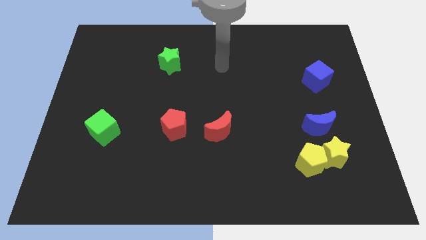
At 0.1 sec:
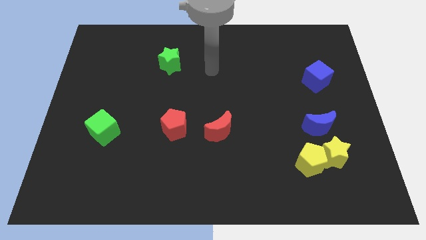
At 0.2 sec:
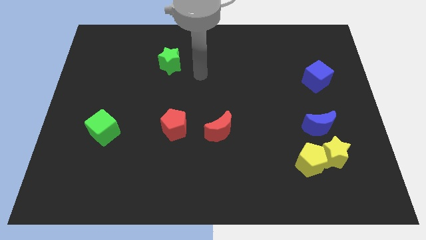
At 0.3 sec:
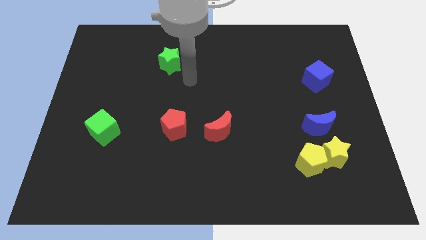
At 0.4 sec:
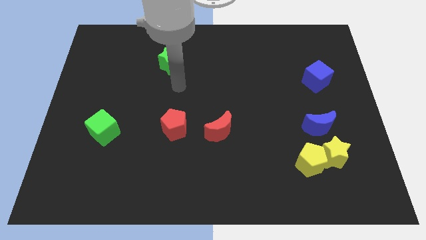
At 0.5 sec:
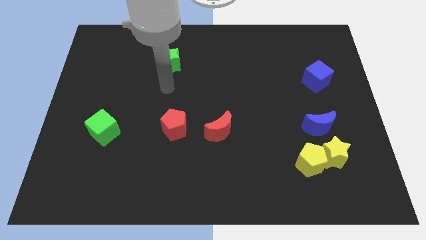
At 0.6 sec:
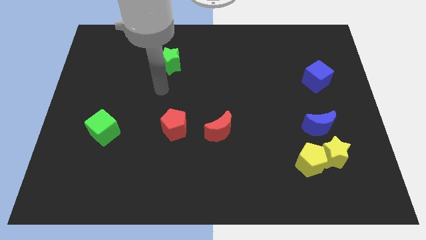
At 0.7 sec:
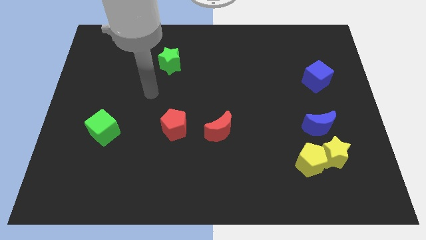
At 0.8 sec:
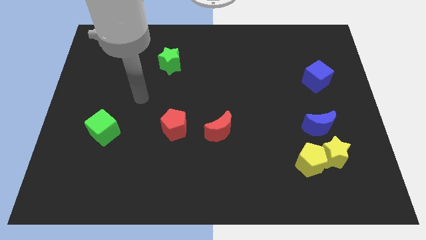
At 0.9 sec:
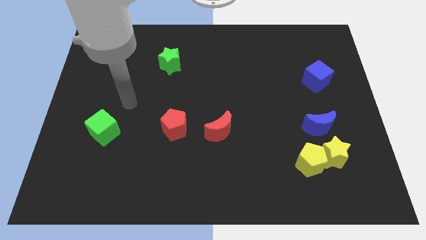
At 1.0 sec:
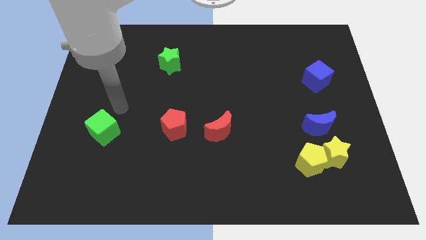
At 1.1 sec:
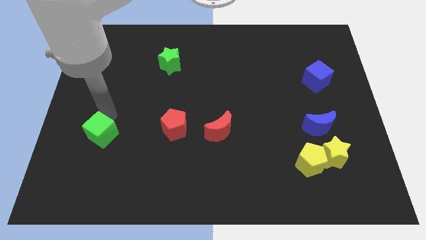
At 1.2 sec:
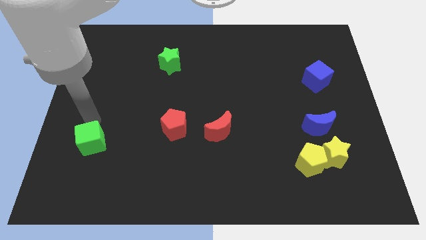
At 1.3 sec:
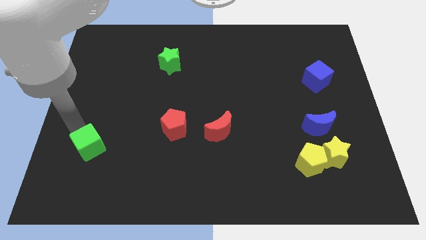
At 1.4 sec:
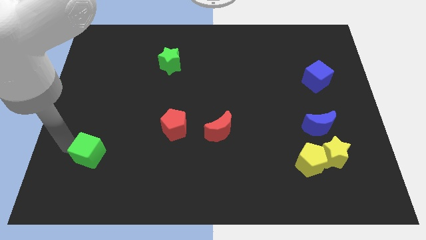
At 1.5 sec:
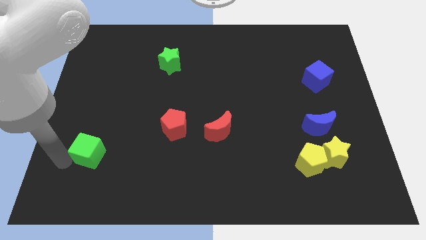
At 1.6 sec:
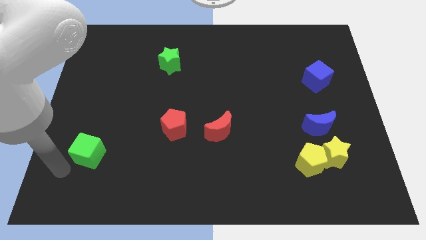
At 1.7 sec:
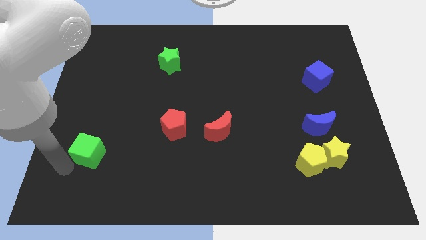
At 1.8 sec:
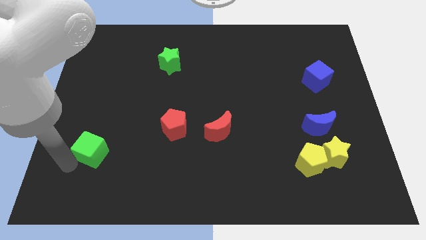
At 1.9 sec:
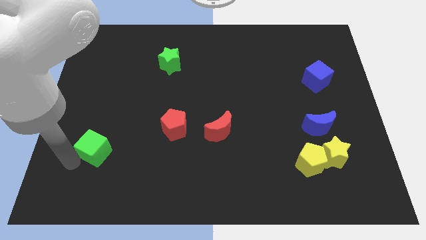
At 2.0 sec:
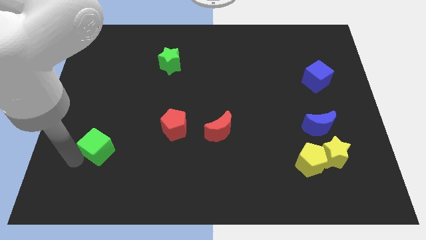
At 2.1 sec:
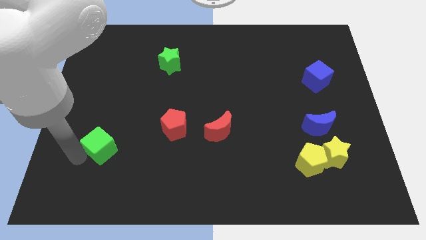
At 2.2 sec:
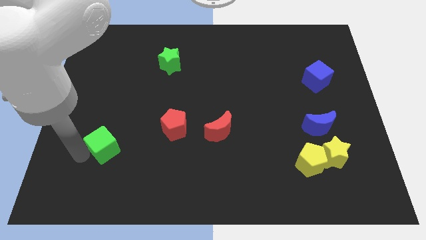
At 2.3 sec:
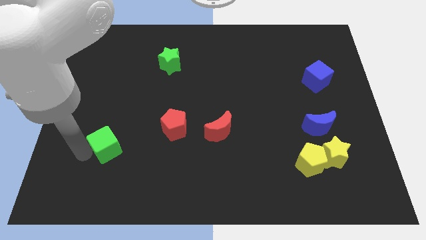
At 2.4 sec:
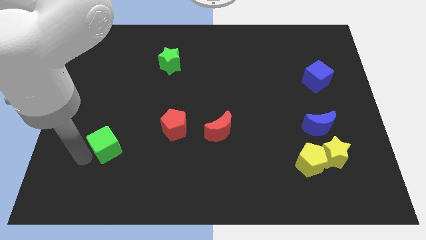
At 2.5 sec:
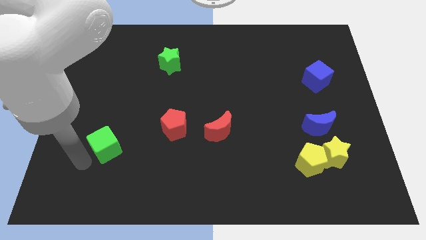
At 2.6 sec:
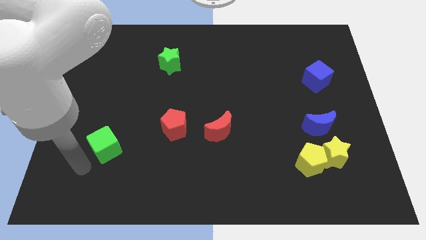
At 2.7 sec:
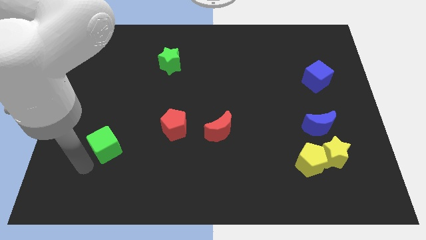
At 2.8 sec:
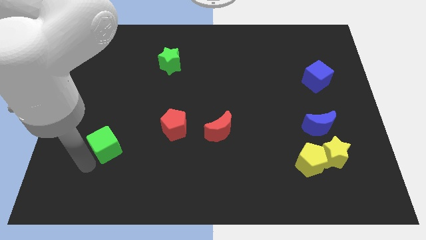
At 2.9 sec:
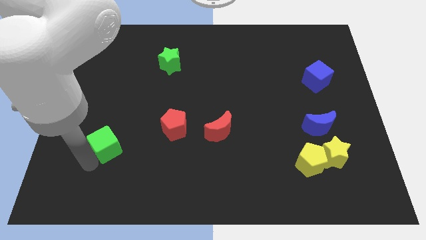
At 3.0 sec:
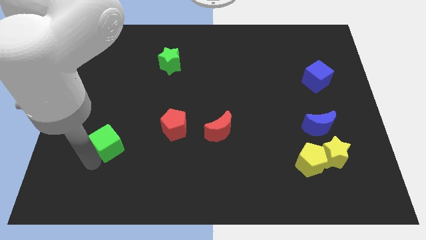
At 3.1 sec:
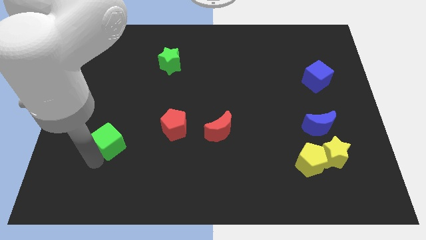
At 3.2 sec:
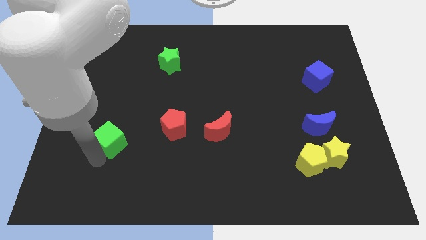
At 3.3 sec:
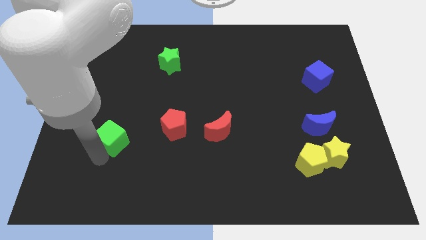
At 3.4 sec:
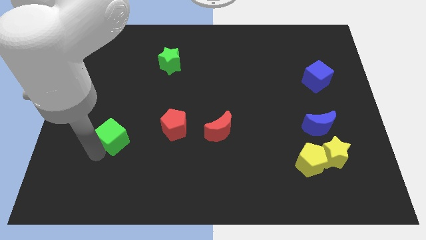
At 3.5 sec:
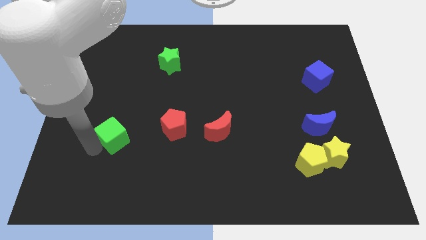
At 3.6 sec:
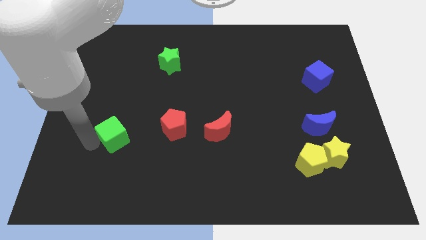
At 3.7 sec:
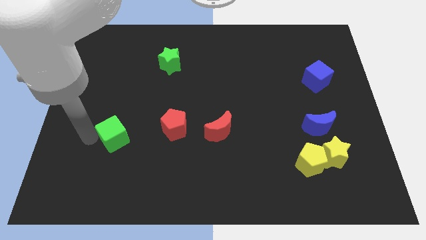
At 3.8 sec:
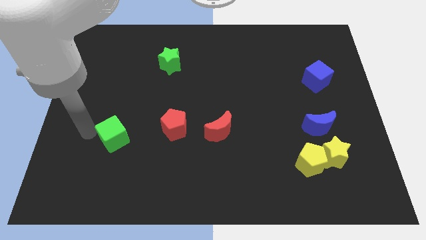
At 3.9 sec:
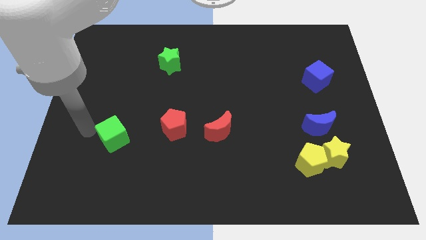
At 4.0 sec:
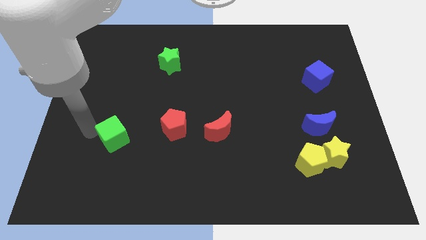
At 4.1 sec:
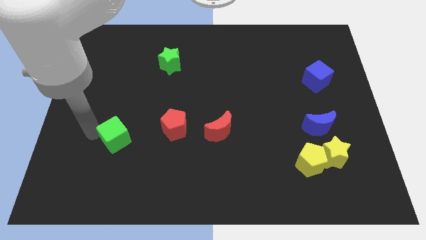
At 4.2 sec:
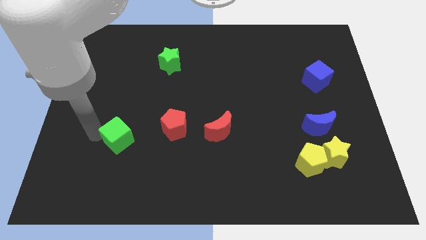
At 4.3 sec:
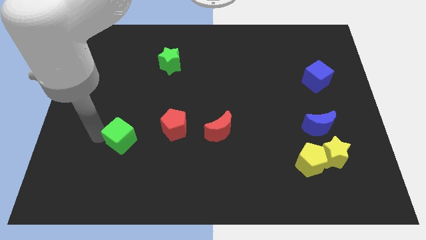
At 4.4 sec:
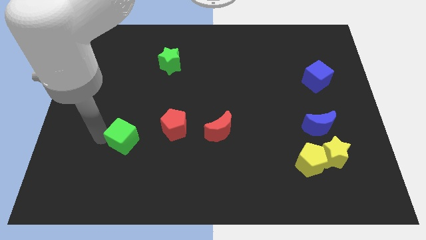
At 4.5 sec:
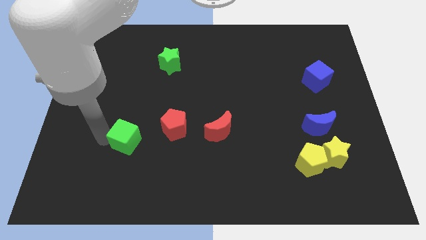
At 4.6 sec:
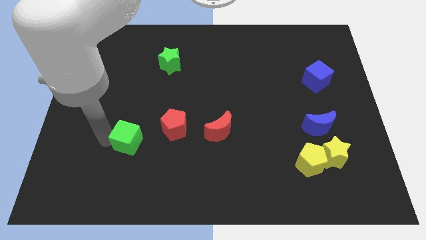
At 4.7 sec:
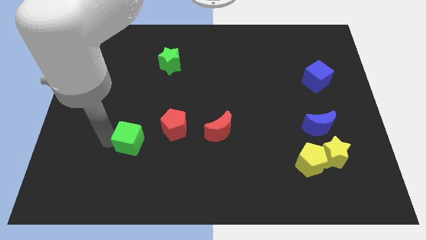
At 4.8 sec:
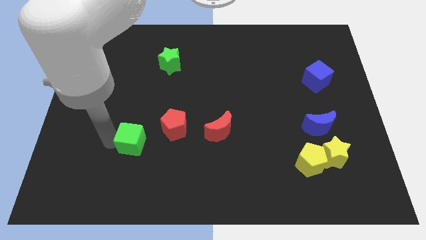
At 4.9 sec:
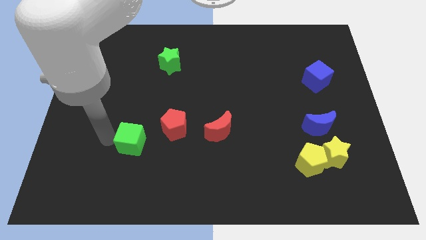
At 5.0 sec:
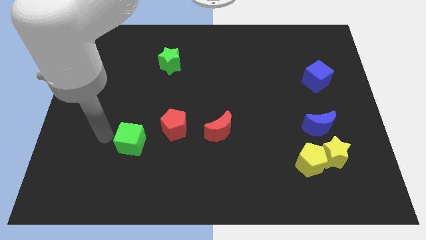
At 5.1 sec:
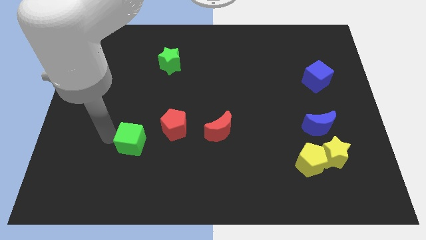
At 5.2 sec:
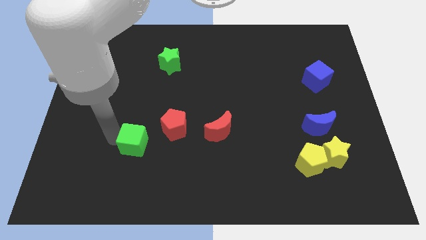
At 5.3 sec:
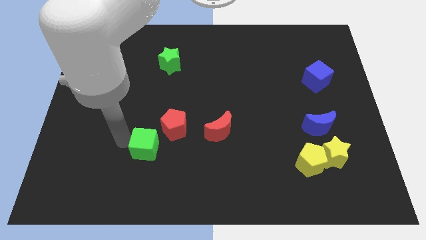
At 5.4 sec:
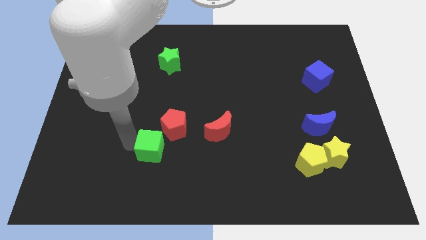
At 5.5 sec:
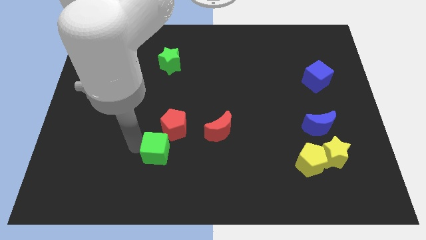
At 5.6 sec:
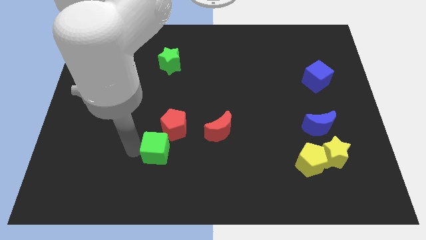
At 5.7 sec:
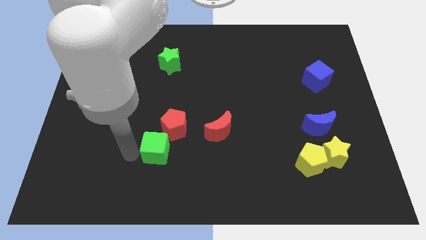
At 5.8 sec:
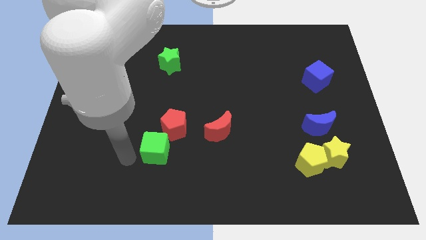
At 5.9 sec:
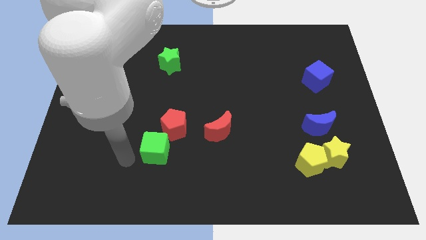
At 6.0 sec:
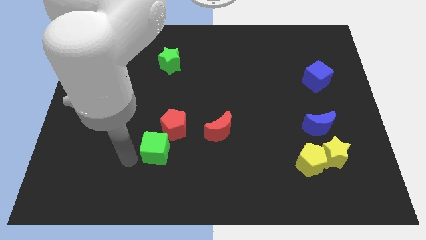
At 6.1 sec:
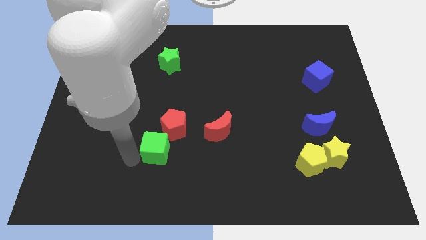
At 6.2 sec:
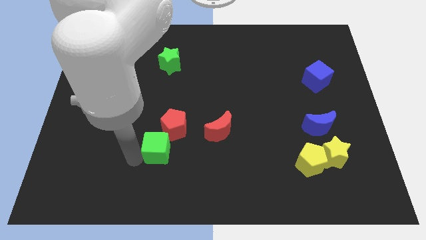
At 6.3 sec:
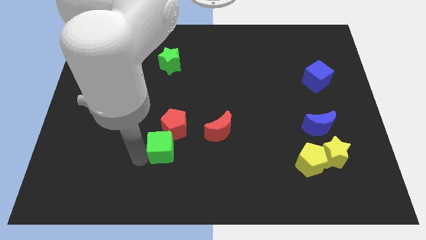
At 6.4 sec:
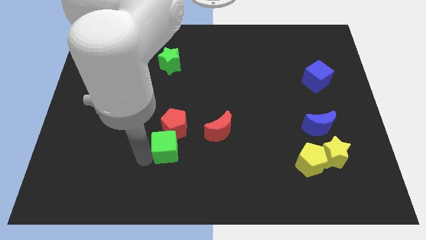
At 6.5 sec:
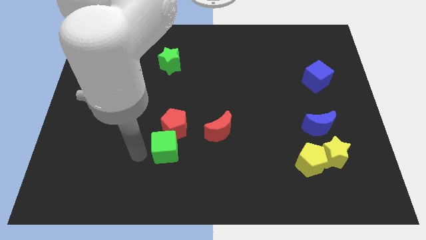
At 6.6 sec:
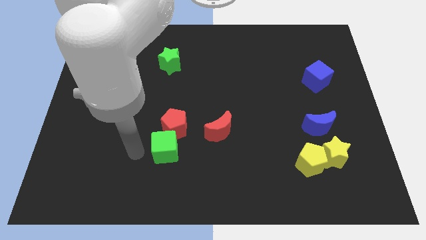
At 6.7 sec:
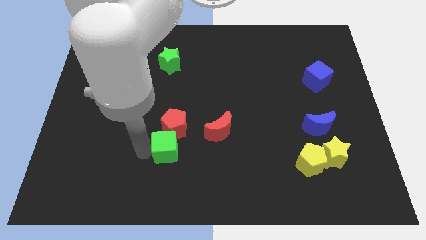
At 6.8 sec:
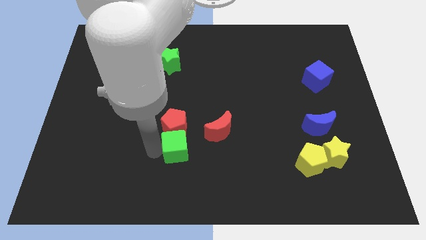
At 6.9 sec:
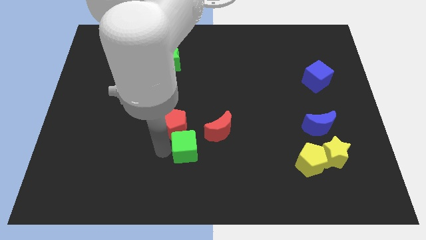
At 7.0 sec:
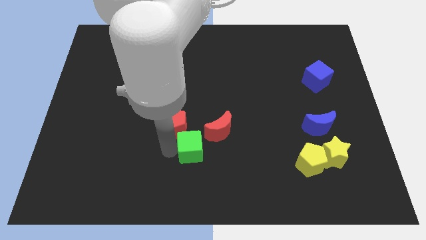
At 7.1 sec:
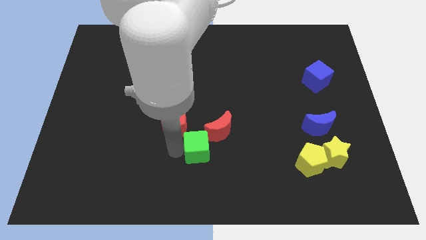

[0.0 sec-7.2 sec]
slide the green cube right

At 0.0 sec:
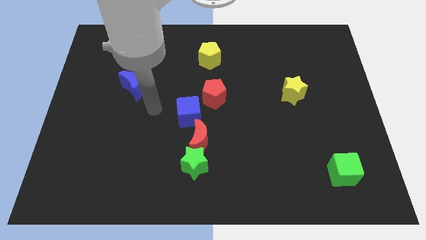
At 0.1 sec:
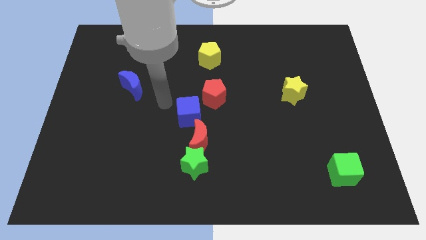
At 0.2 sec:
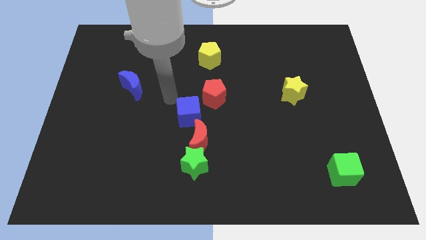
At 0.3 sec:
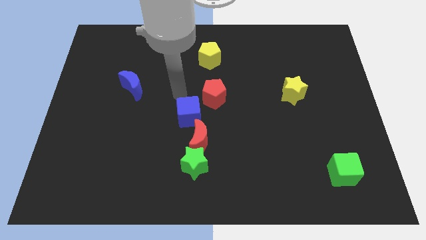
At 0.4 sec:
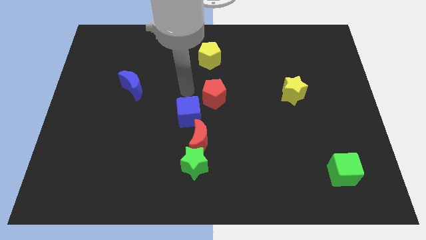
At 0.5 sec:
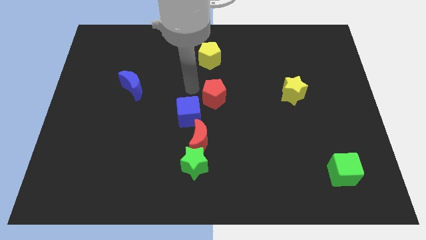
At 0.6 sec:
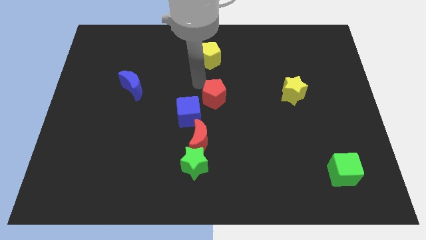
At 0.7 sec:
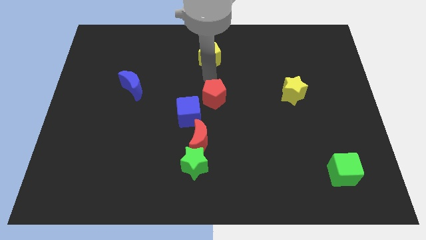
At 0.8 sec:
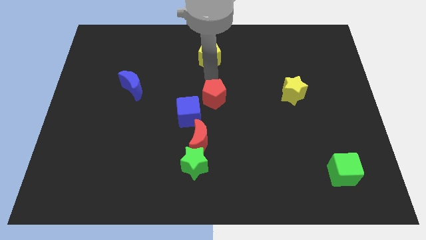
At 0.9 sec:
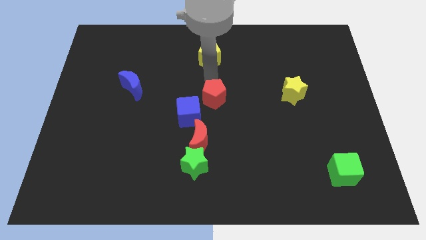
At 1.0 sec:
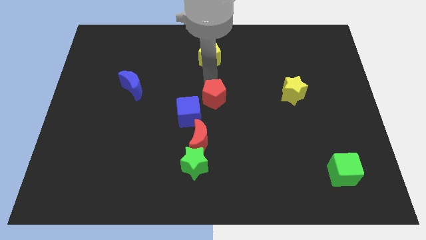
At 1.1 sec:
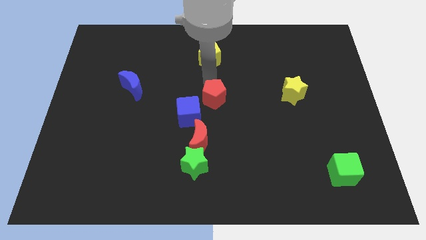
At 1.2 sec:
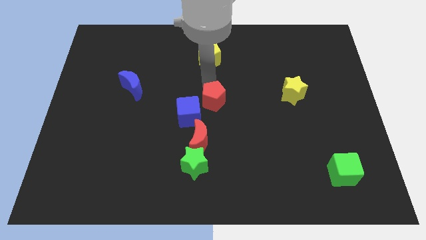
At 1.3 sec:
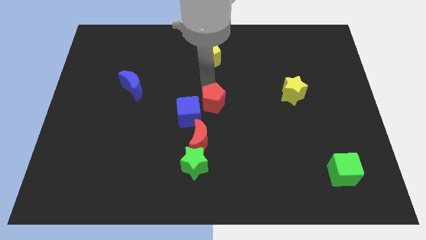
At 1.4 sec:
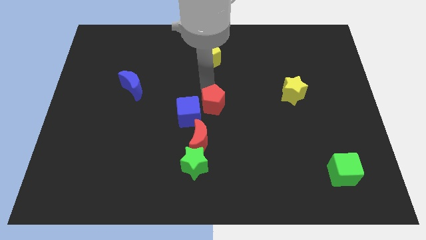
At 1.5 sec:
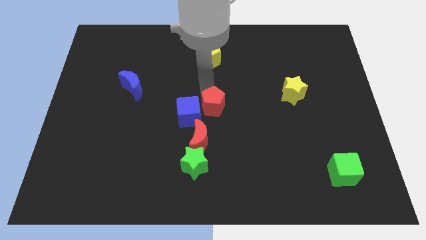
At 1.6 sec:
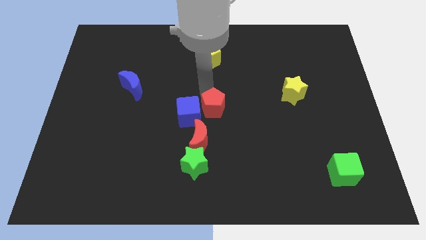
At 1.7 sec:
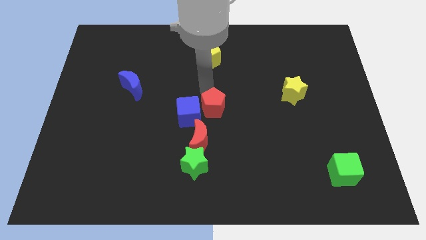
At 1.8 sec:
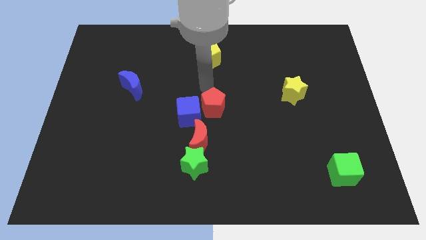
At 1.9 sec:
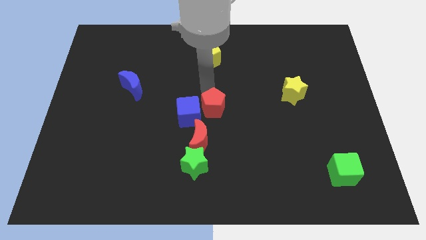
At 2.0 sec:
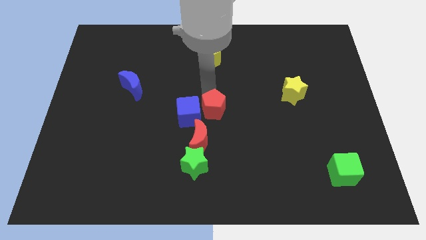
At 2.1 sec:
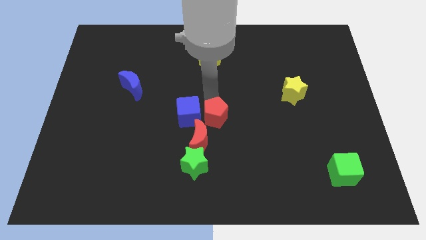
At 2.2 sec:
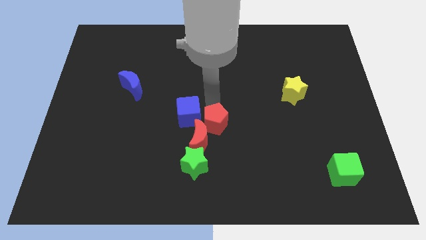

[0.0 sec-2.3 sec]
push the red pentagon a bit down
